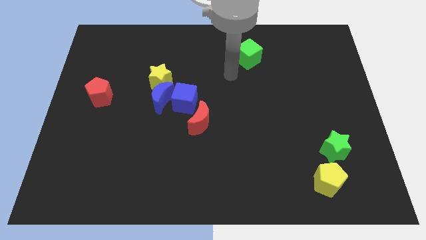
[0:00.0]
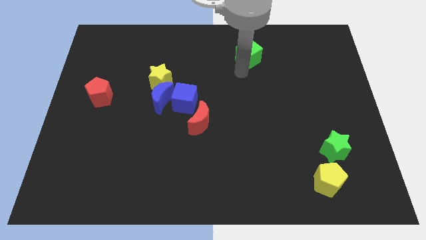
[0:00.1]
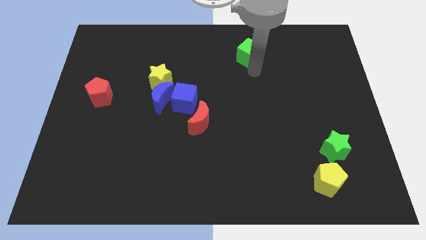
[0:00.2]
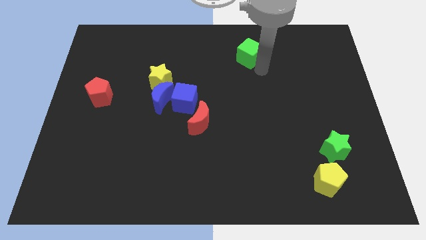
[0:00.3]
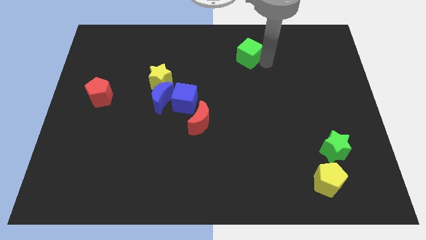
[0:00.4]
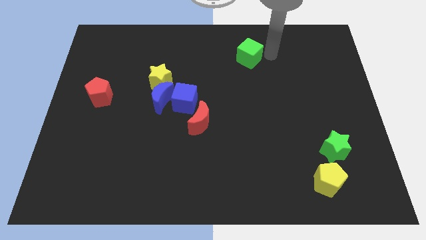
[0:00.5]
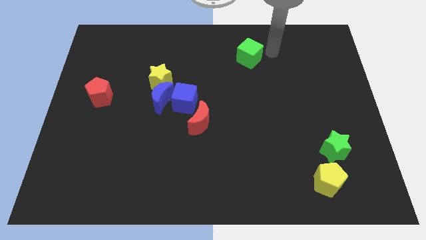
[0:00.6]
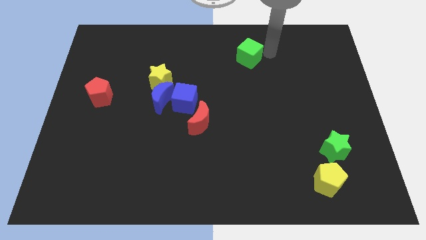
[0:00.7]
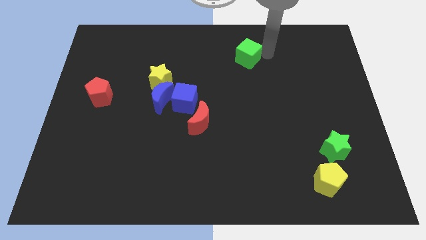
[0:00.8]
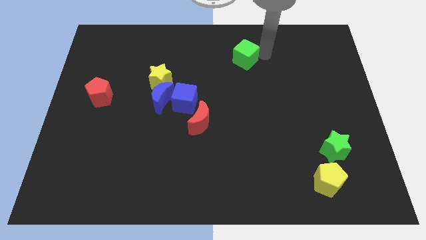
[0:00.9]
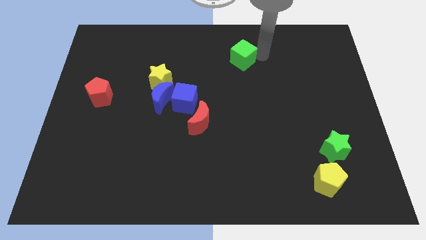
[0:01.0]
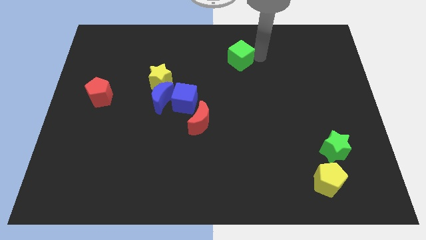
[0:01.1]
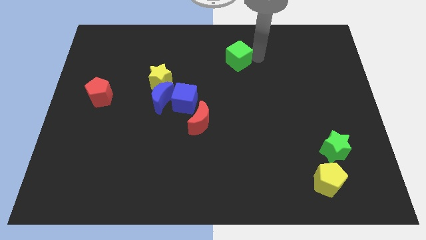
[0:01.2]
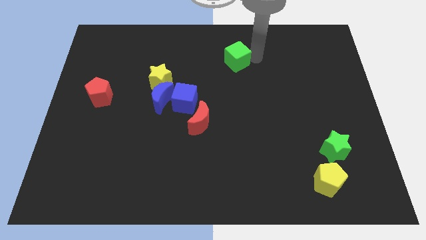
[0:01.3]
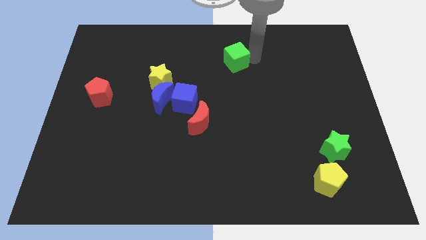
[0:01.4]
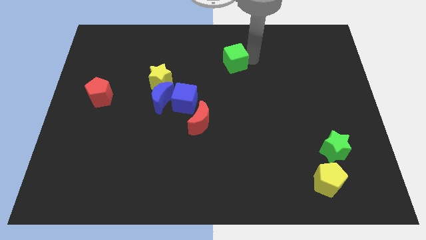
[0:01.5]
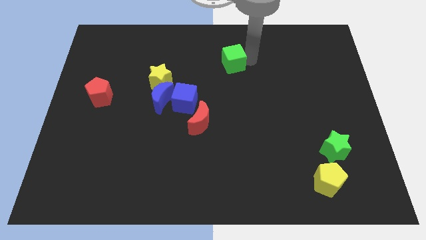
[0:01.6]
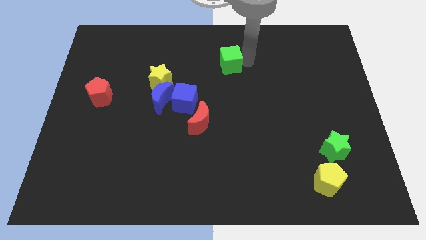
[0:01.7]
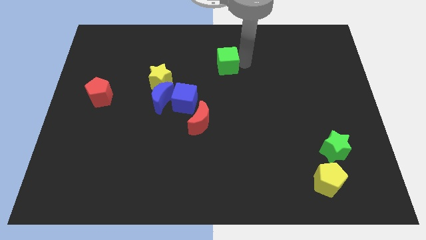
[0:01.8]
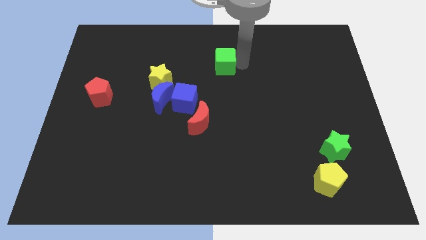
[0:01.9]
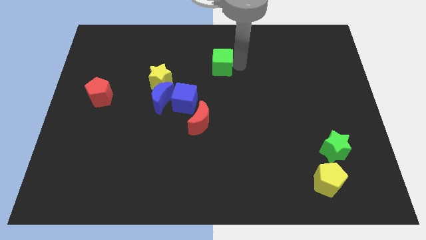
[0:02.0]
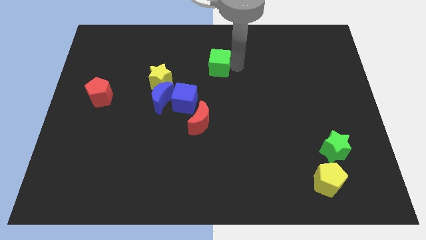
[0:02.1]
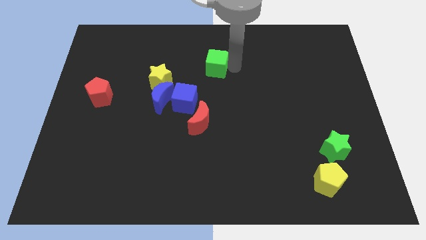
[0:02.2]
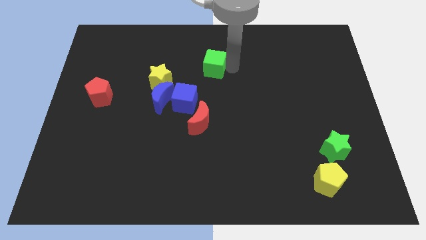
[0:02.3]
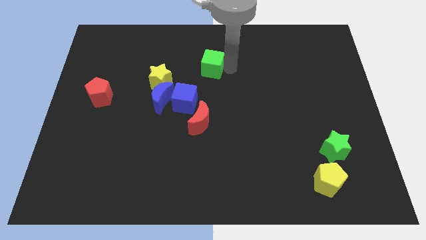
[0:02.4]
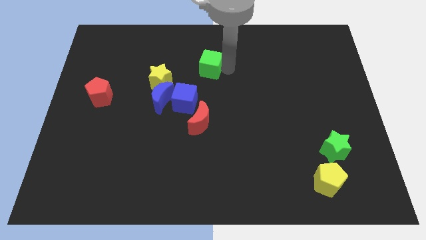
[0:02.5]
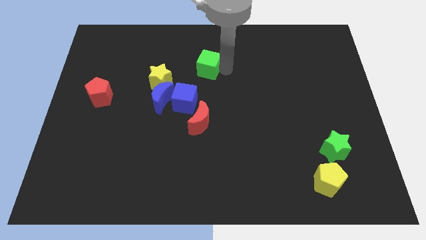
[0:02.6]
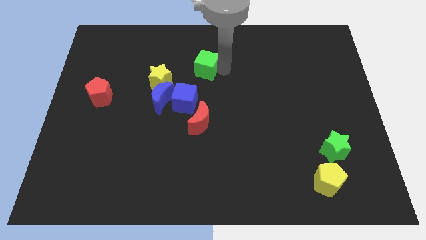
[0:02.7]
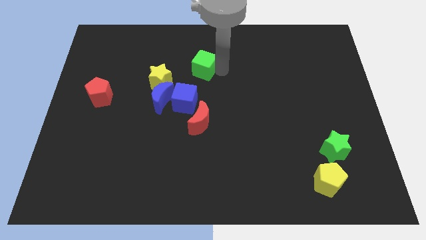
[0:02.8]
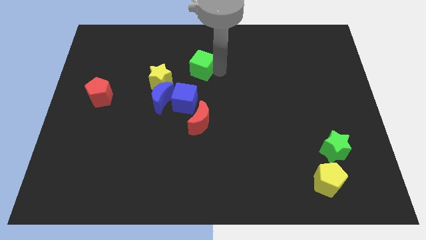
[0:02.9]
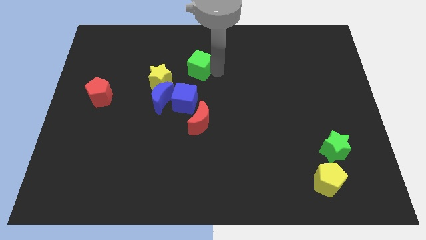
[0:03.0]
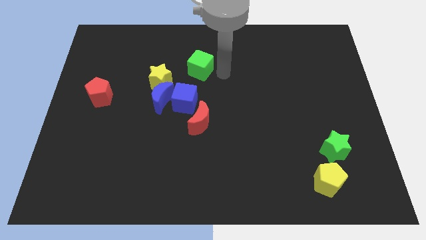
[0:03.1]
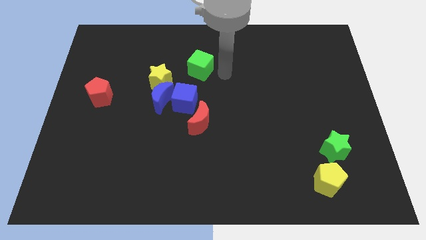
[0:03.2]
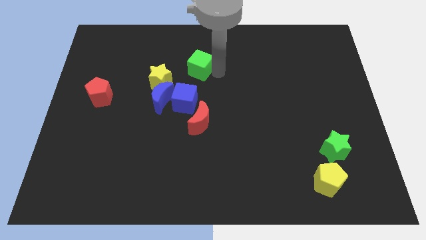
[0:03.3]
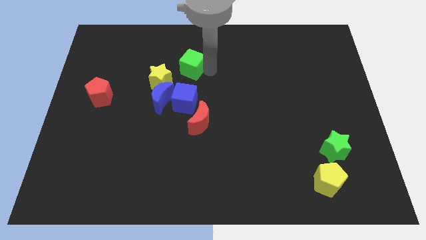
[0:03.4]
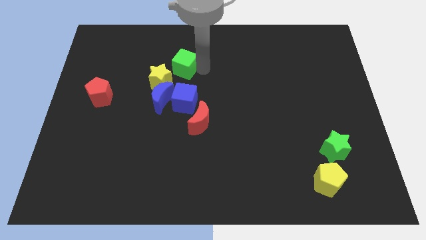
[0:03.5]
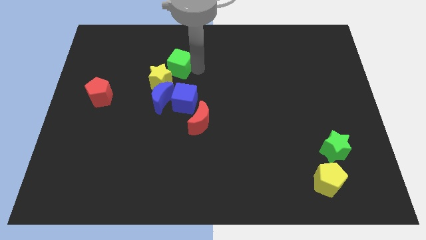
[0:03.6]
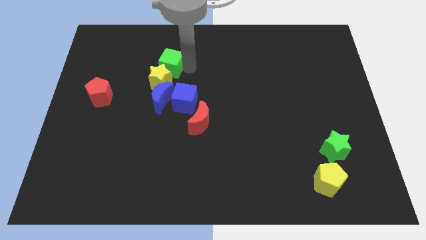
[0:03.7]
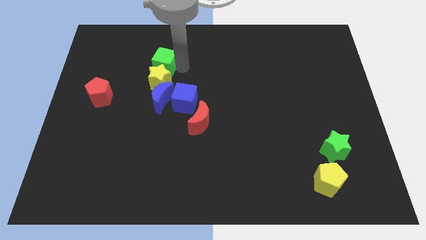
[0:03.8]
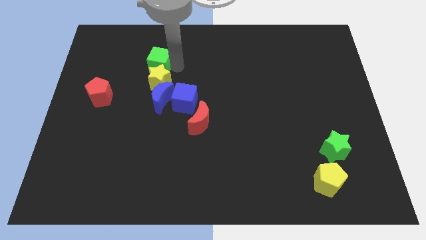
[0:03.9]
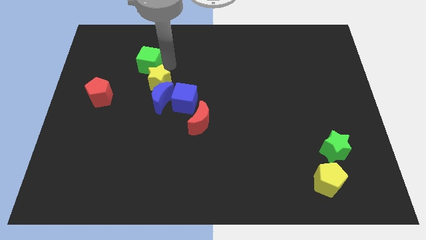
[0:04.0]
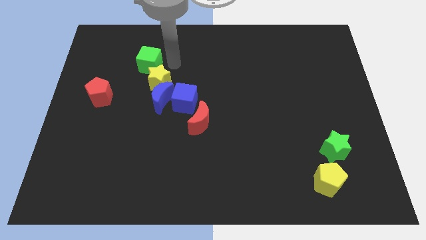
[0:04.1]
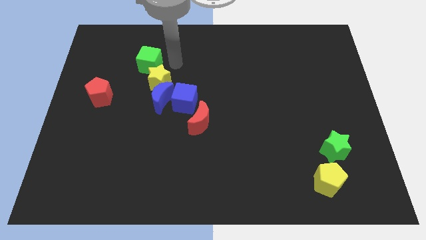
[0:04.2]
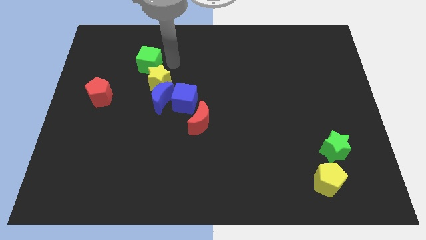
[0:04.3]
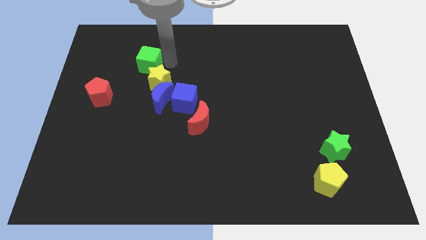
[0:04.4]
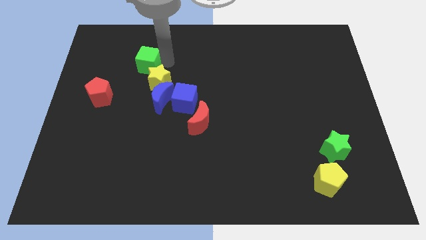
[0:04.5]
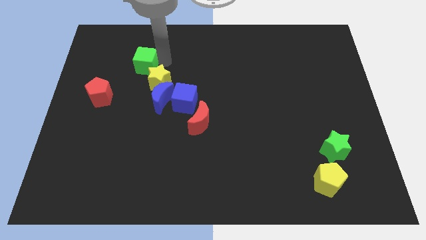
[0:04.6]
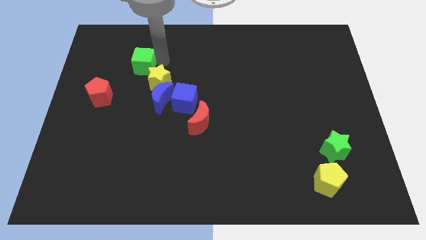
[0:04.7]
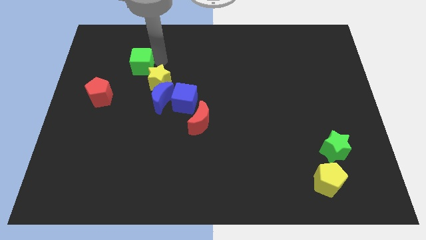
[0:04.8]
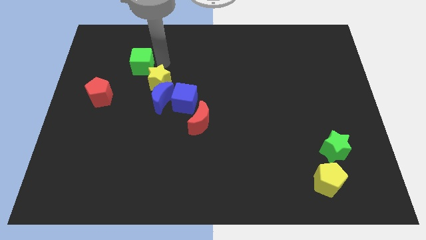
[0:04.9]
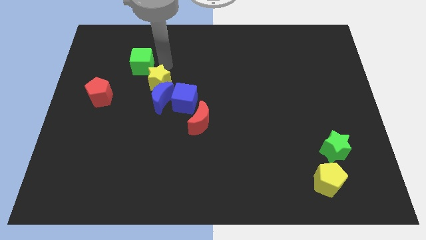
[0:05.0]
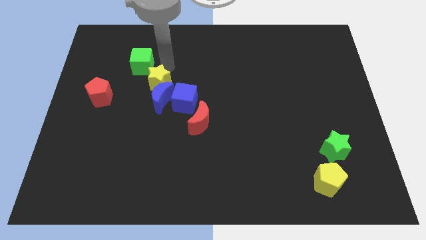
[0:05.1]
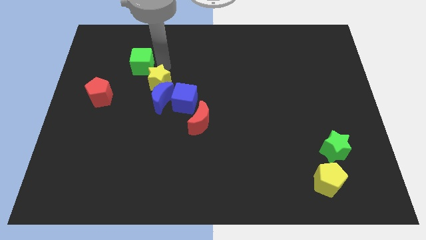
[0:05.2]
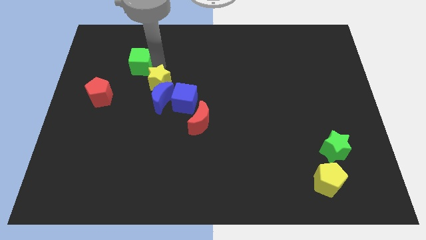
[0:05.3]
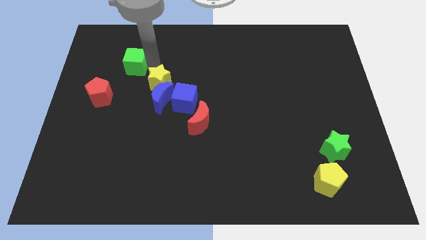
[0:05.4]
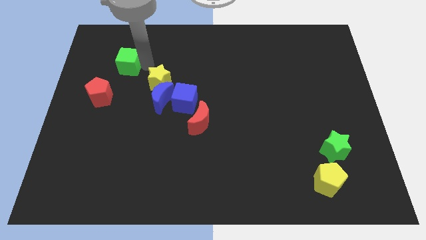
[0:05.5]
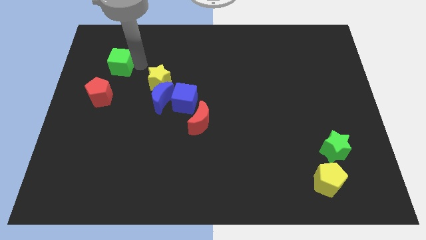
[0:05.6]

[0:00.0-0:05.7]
push the green cube to the top of the red pentagon

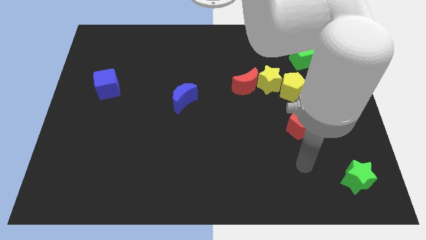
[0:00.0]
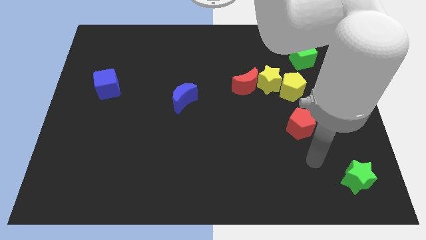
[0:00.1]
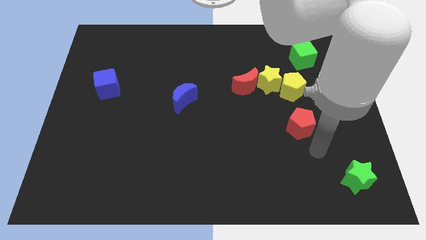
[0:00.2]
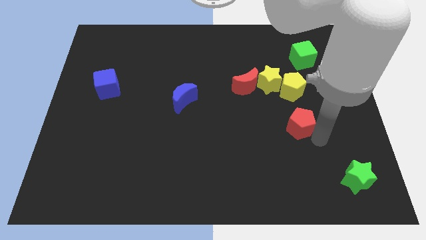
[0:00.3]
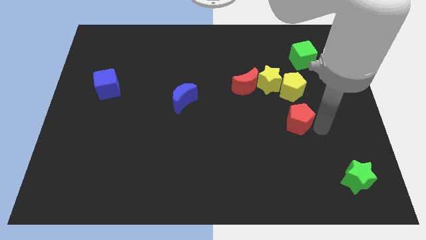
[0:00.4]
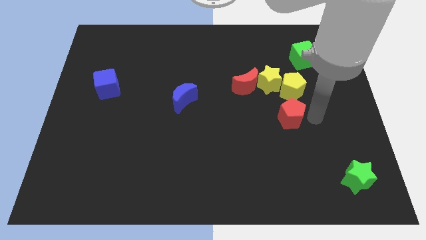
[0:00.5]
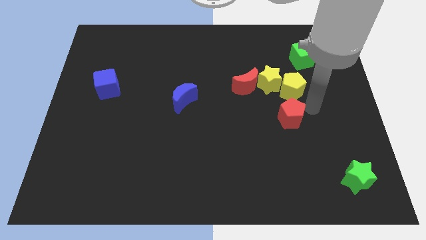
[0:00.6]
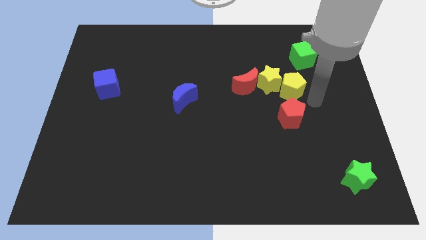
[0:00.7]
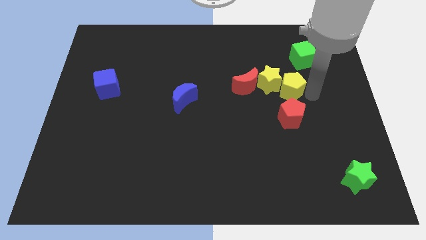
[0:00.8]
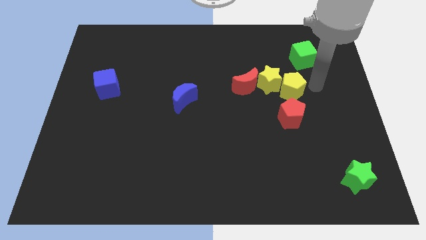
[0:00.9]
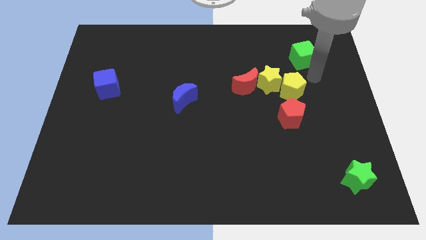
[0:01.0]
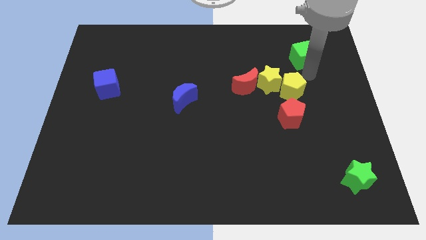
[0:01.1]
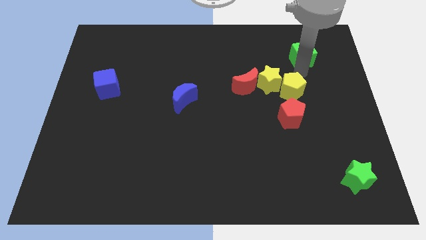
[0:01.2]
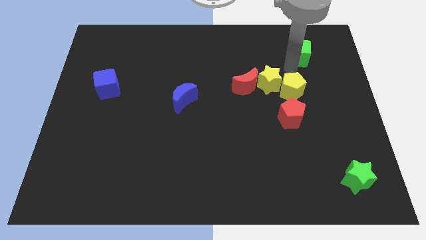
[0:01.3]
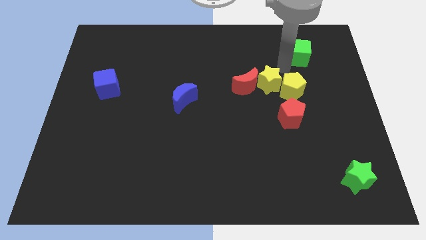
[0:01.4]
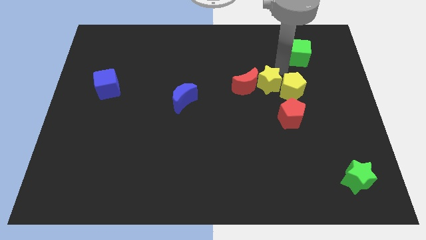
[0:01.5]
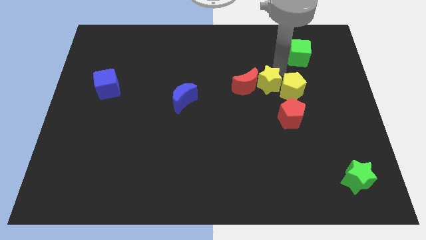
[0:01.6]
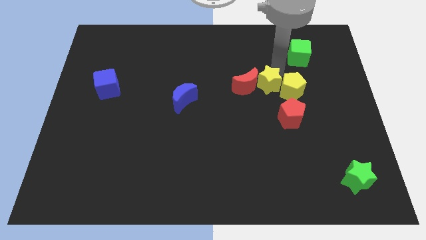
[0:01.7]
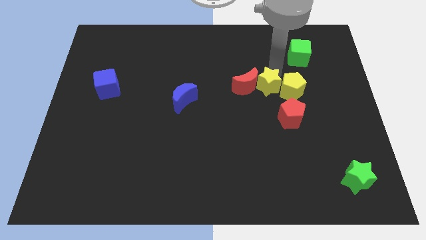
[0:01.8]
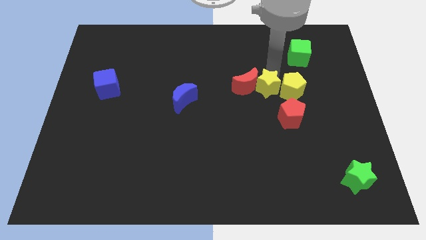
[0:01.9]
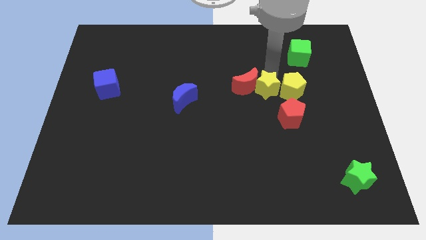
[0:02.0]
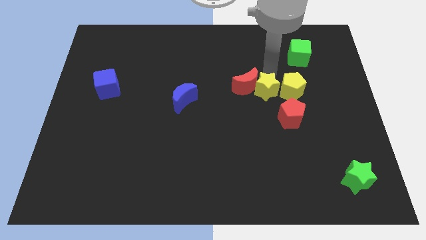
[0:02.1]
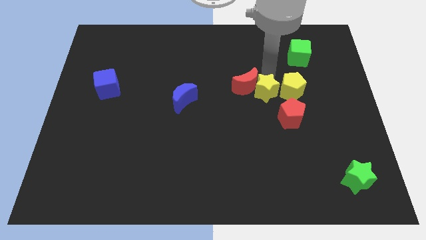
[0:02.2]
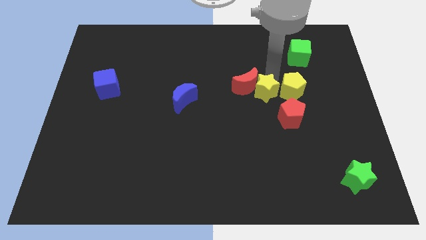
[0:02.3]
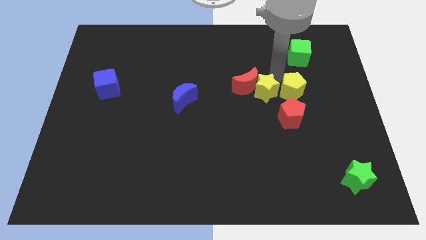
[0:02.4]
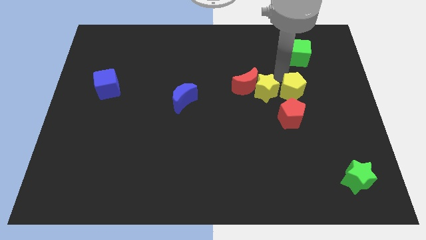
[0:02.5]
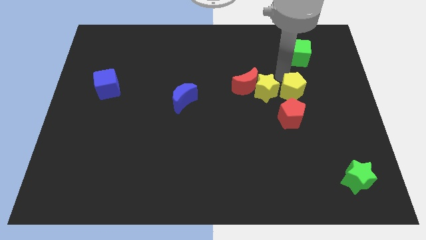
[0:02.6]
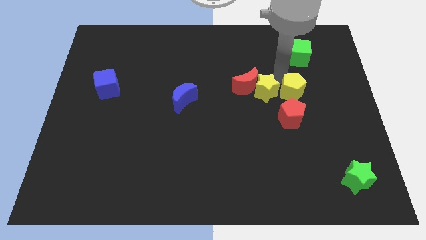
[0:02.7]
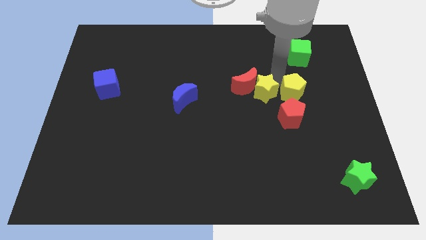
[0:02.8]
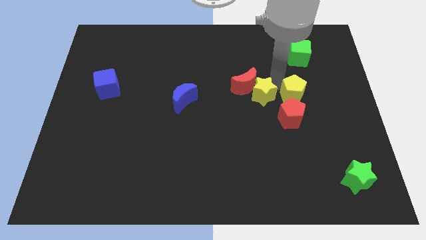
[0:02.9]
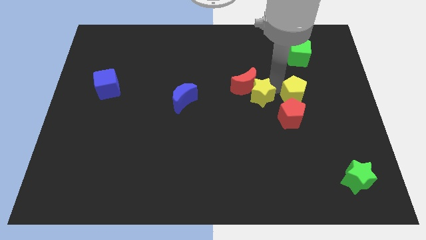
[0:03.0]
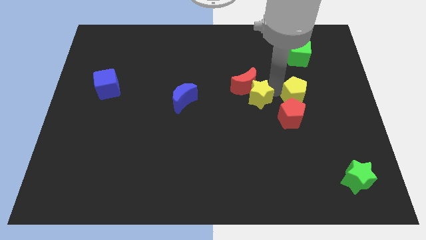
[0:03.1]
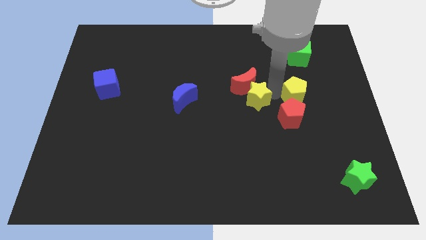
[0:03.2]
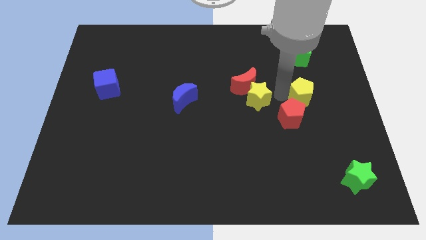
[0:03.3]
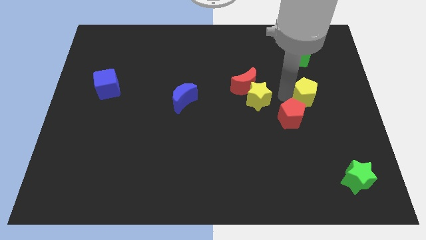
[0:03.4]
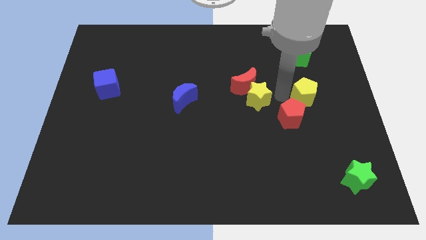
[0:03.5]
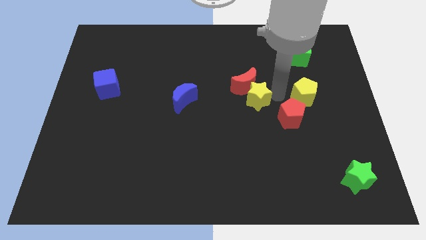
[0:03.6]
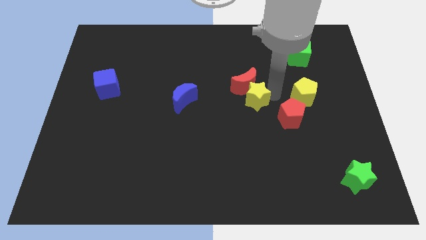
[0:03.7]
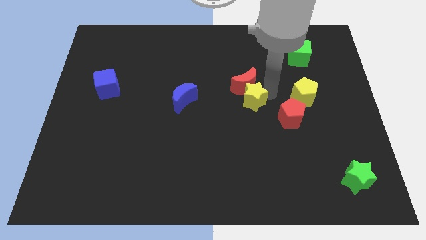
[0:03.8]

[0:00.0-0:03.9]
slide the yellow star diagonally down and to the left of the red moon
